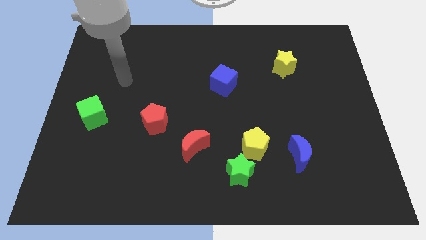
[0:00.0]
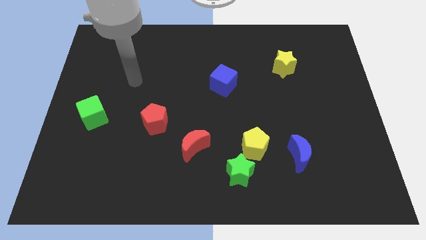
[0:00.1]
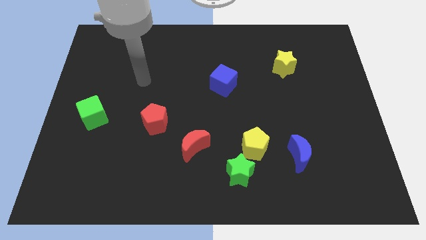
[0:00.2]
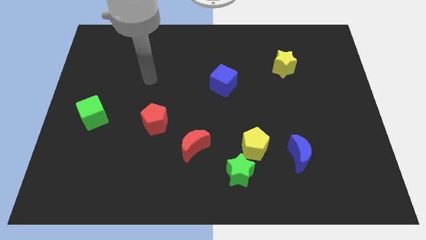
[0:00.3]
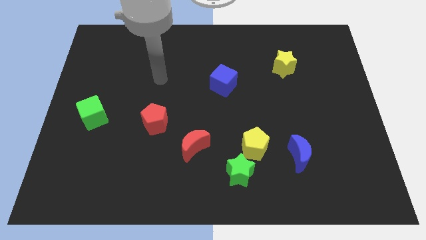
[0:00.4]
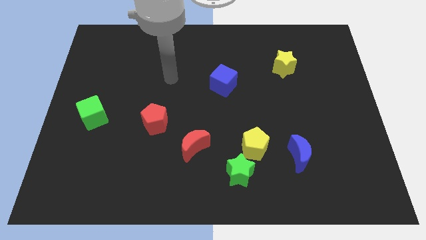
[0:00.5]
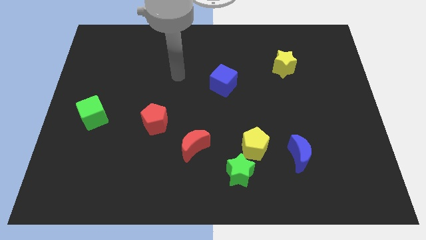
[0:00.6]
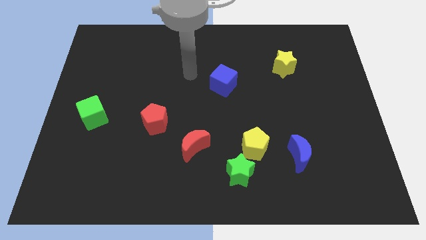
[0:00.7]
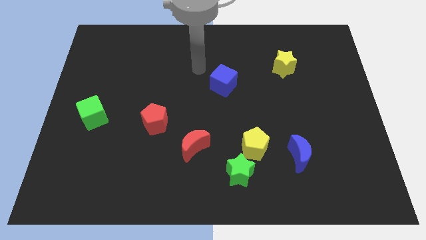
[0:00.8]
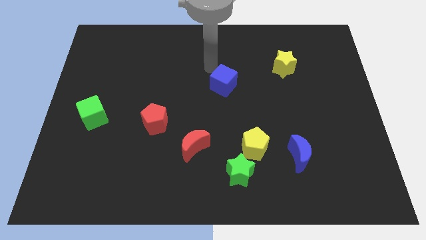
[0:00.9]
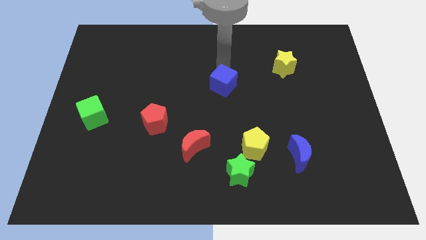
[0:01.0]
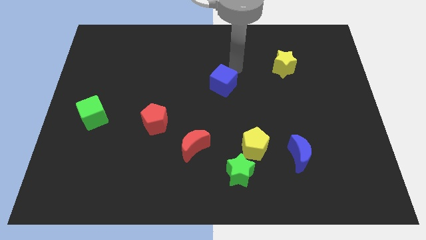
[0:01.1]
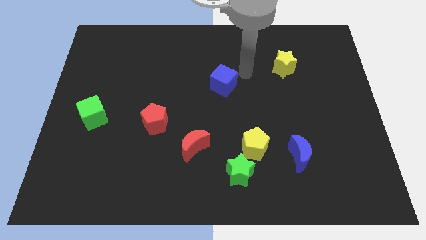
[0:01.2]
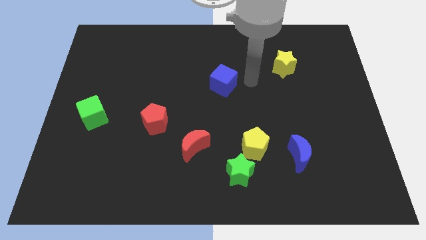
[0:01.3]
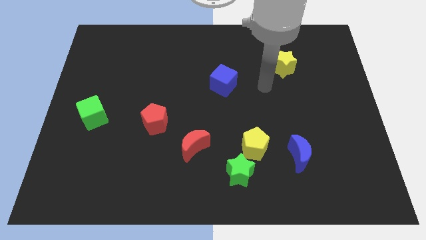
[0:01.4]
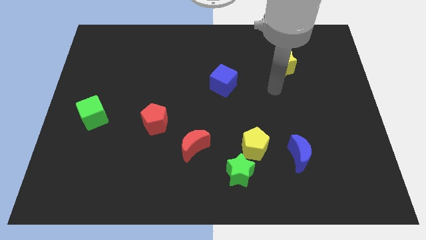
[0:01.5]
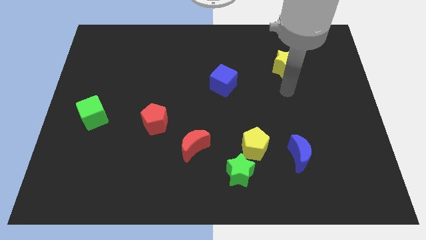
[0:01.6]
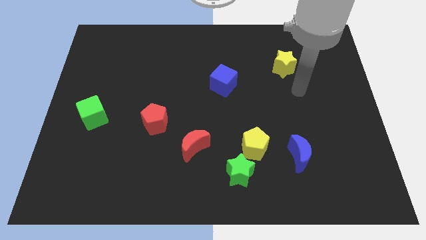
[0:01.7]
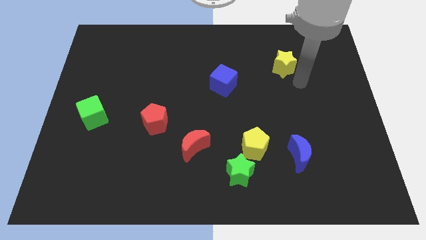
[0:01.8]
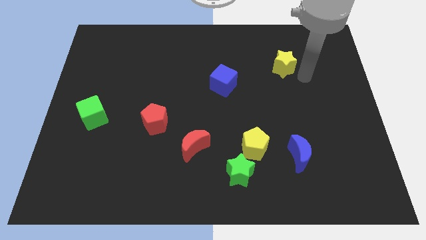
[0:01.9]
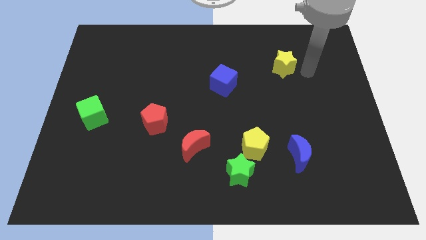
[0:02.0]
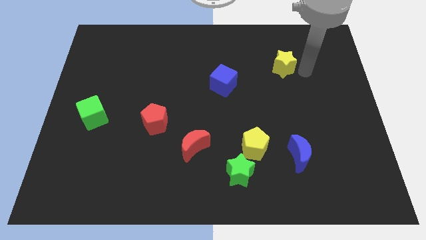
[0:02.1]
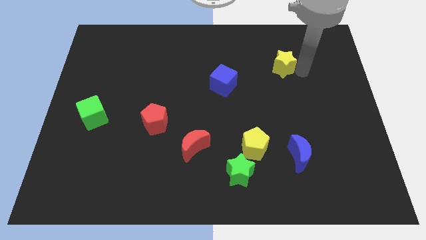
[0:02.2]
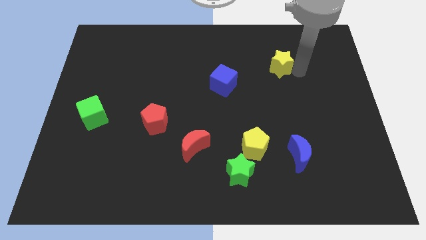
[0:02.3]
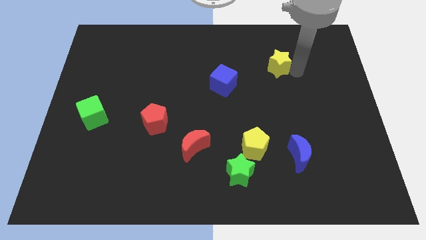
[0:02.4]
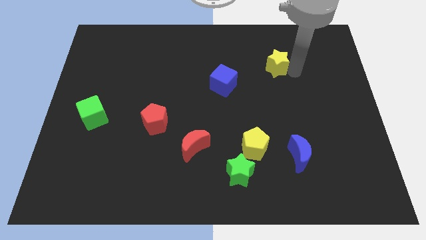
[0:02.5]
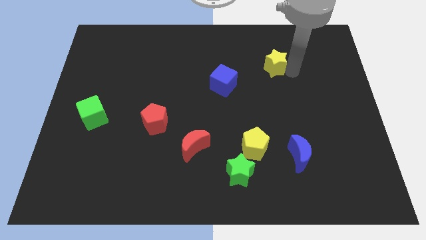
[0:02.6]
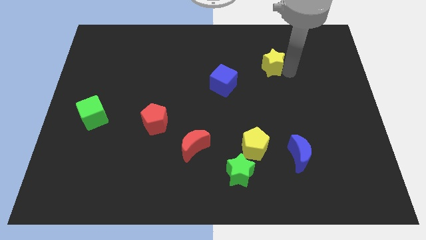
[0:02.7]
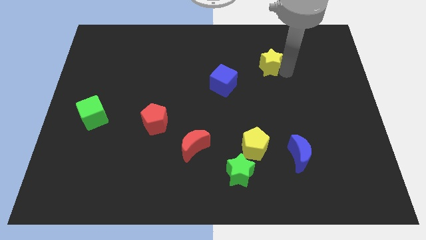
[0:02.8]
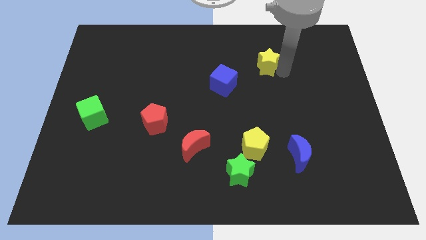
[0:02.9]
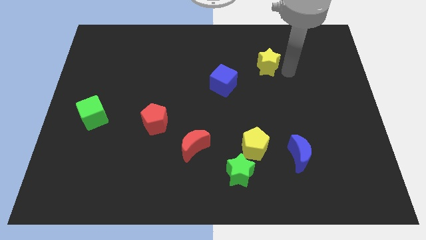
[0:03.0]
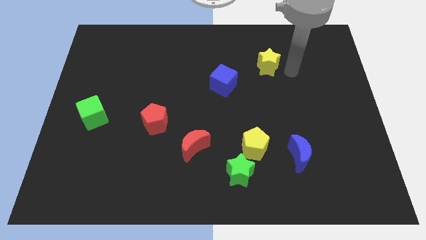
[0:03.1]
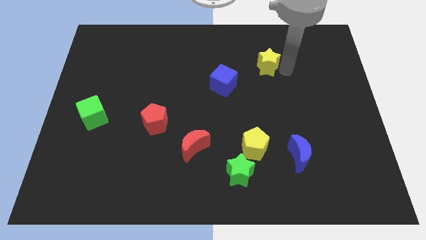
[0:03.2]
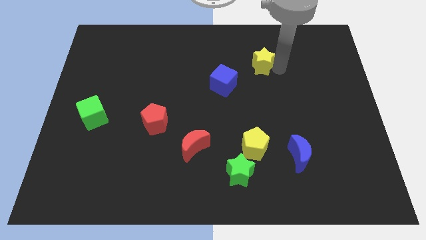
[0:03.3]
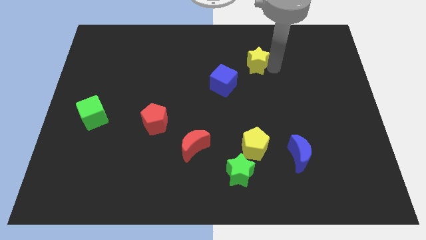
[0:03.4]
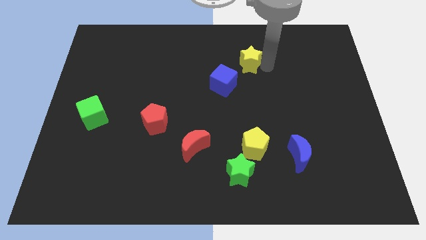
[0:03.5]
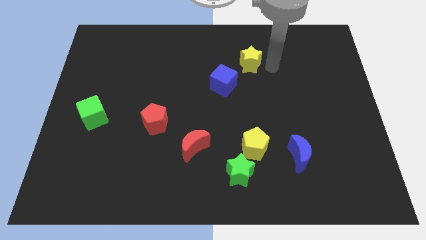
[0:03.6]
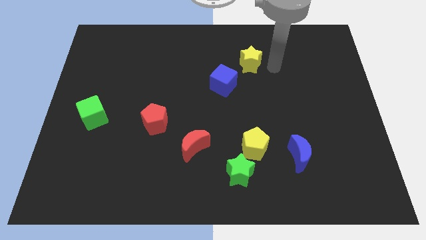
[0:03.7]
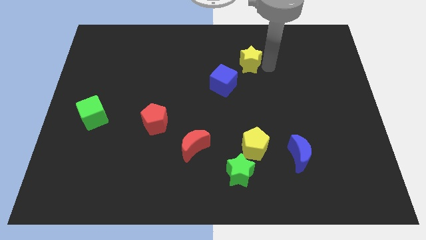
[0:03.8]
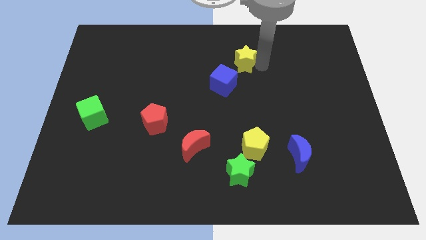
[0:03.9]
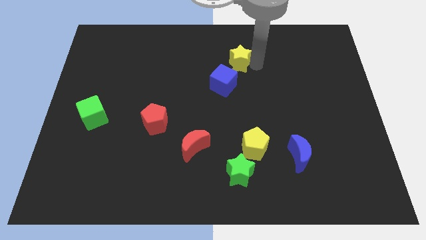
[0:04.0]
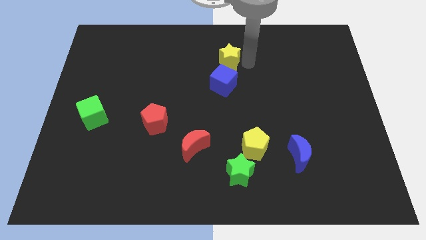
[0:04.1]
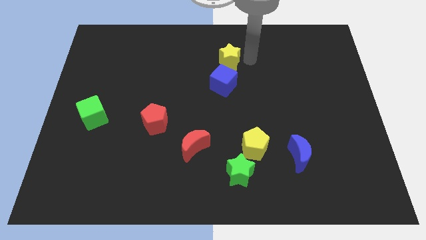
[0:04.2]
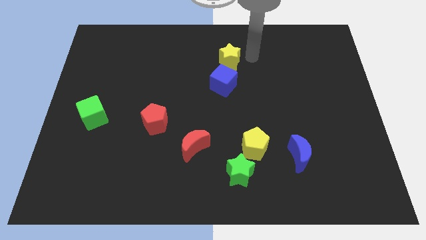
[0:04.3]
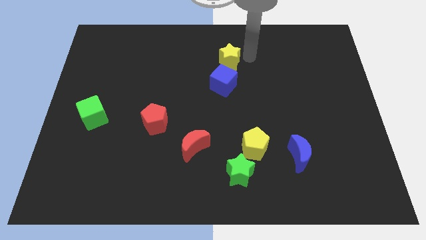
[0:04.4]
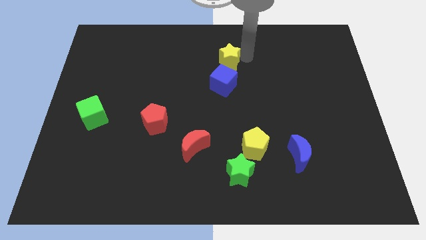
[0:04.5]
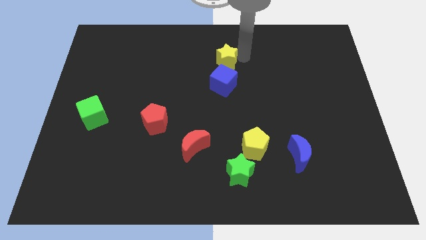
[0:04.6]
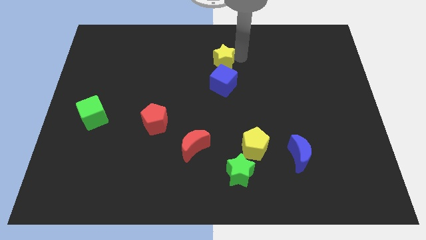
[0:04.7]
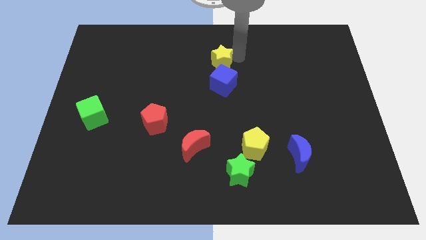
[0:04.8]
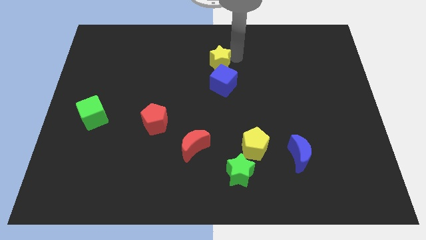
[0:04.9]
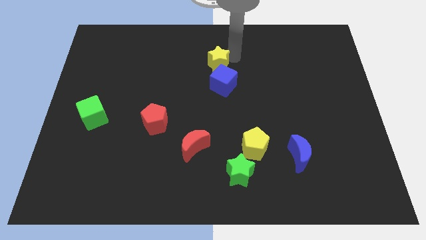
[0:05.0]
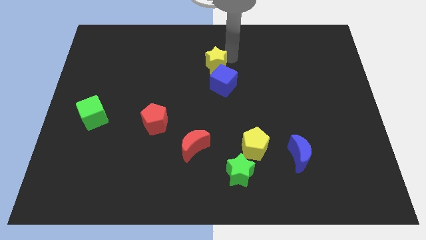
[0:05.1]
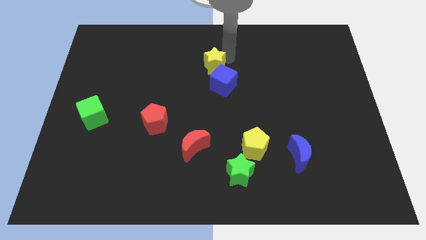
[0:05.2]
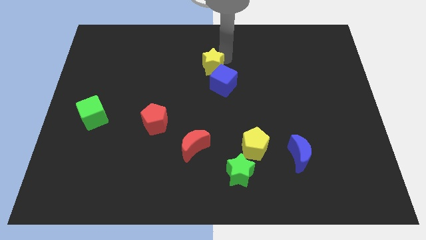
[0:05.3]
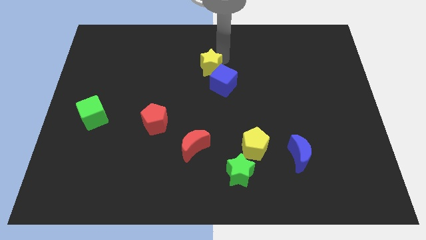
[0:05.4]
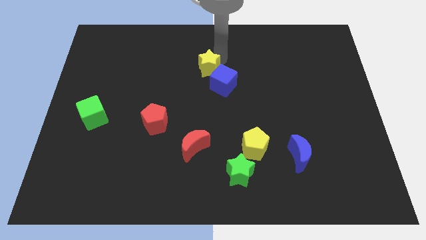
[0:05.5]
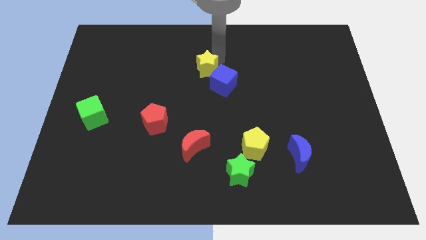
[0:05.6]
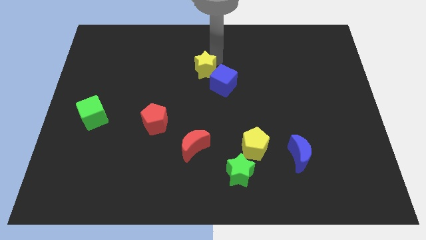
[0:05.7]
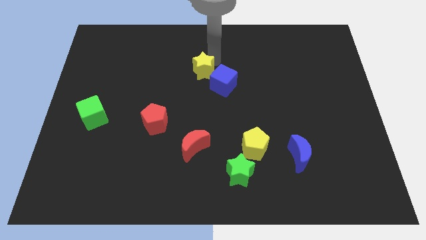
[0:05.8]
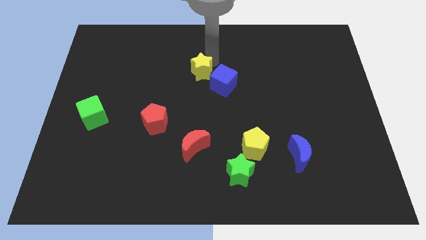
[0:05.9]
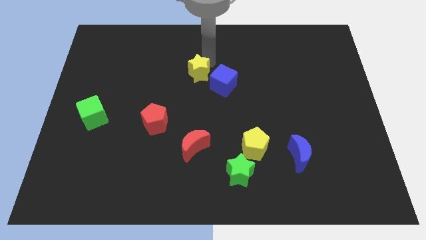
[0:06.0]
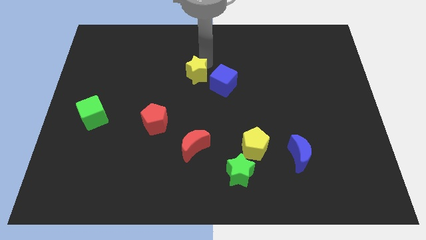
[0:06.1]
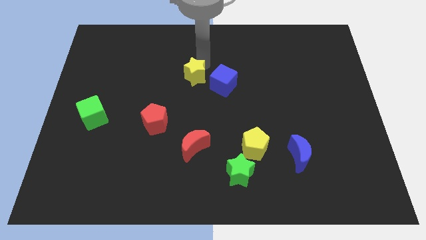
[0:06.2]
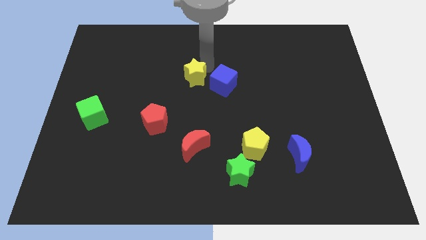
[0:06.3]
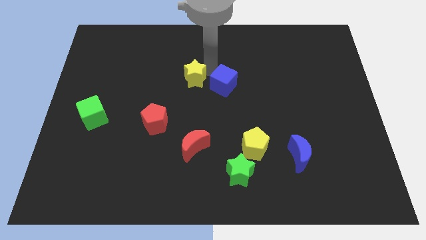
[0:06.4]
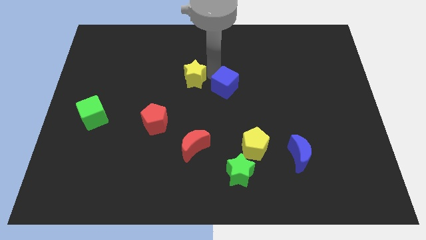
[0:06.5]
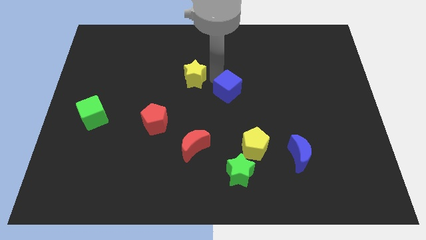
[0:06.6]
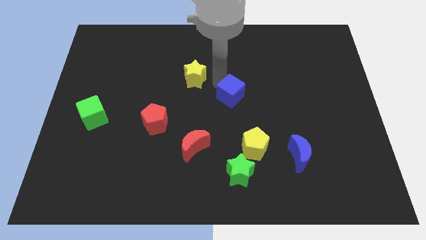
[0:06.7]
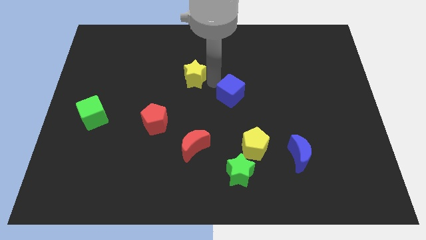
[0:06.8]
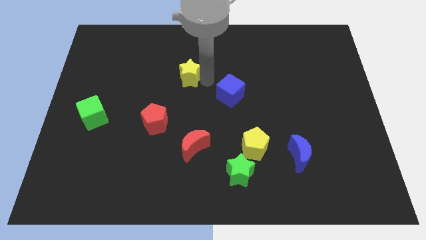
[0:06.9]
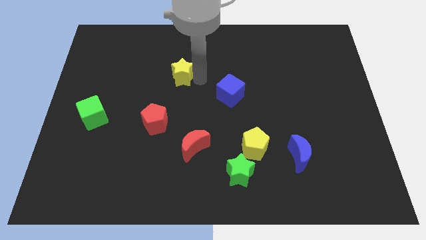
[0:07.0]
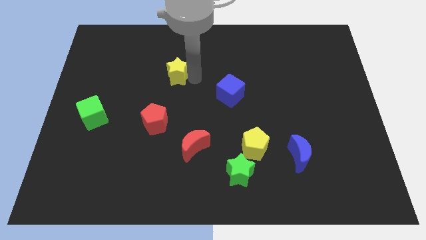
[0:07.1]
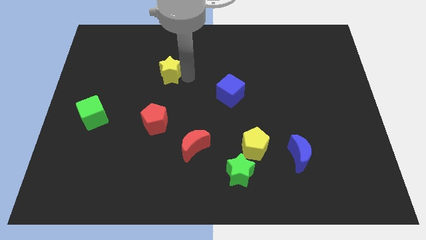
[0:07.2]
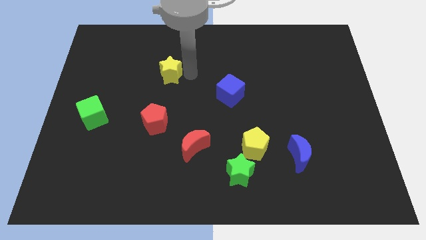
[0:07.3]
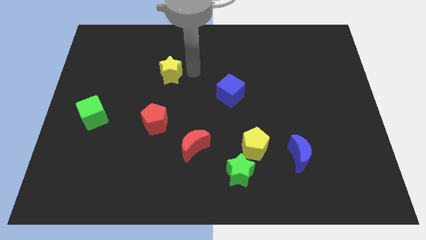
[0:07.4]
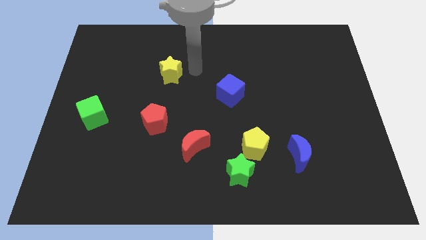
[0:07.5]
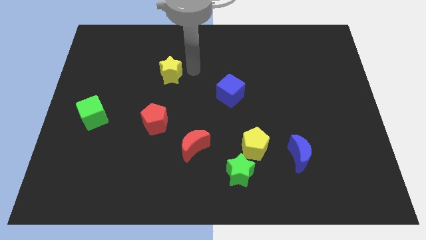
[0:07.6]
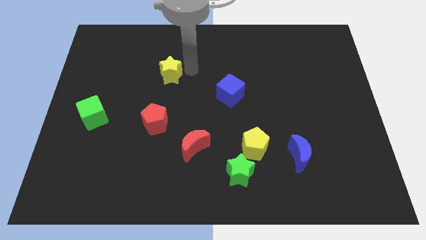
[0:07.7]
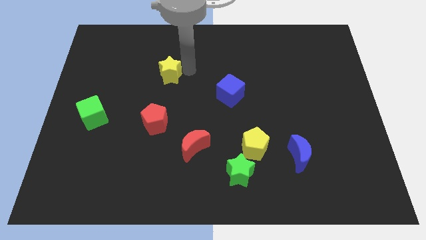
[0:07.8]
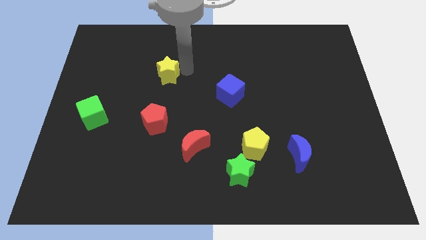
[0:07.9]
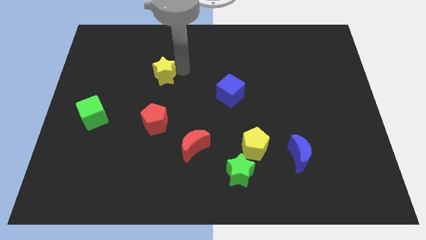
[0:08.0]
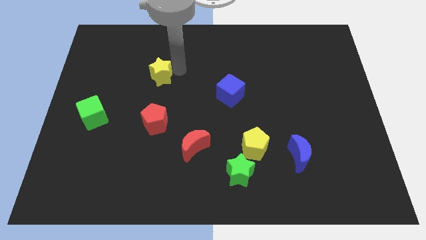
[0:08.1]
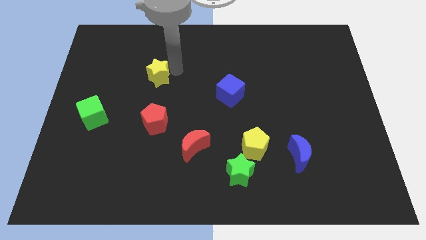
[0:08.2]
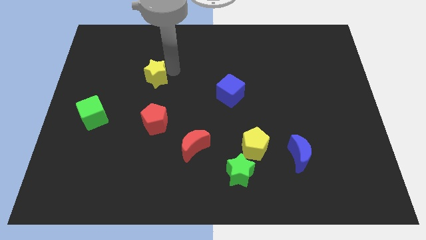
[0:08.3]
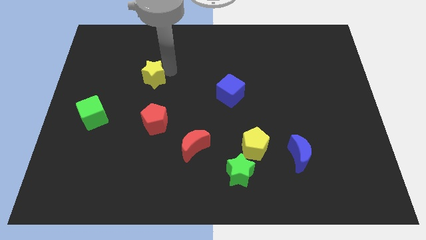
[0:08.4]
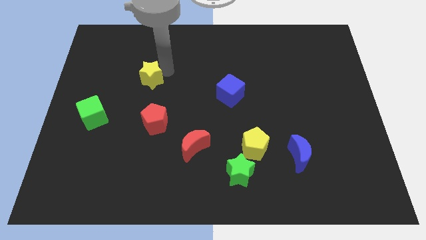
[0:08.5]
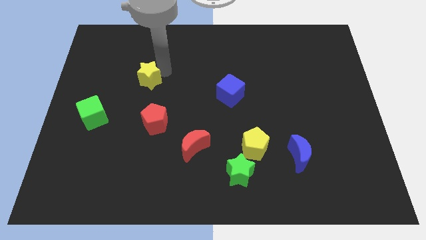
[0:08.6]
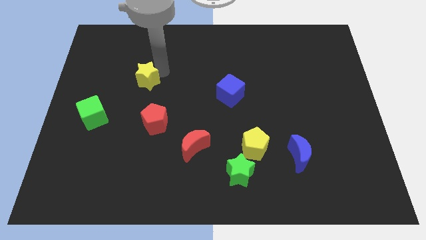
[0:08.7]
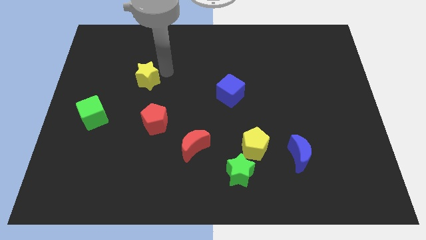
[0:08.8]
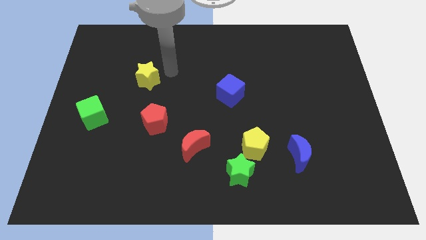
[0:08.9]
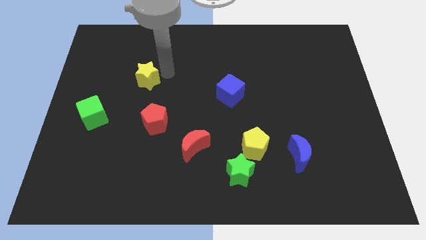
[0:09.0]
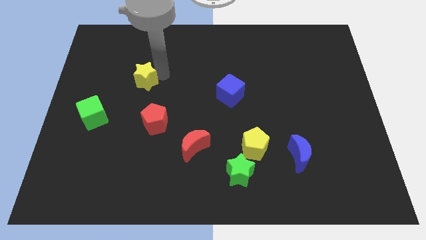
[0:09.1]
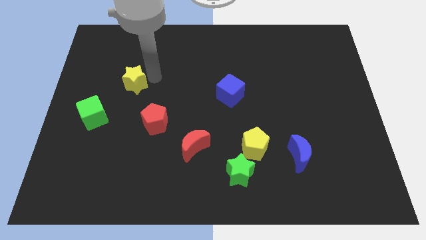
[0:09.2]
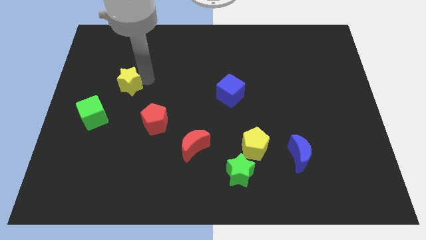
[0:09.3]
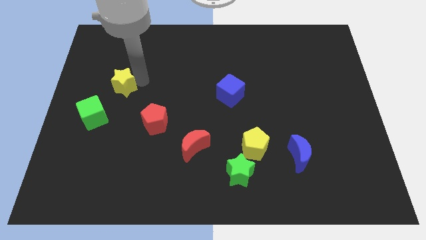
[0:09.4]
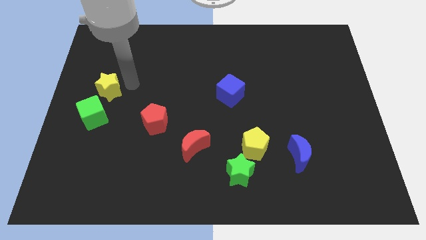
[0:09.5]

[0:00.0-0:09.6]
slide the yellow star to the center left
